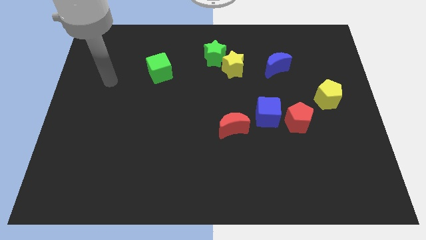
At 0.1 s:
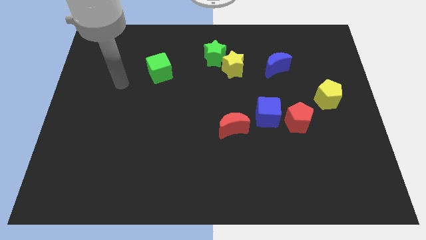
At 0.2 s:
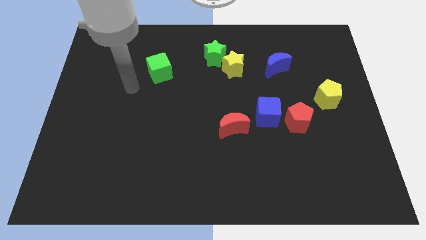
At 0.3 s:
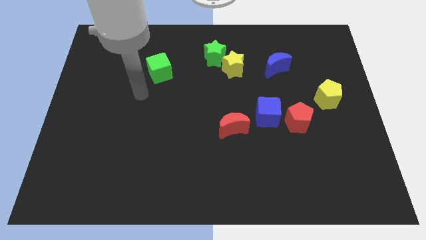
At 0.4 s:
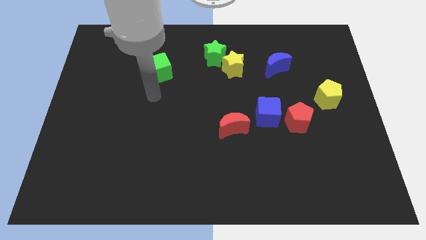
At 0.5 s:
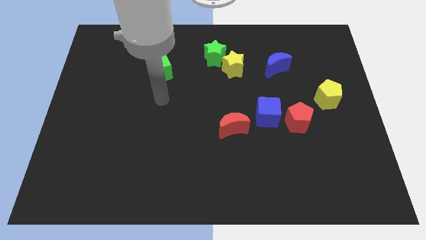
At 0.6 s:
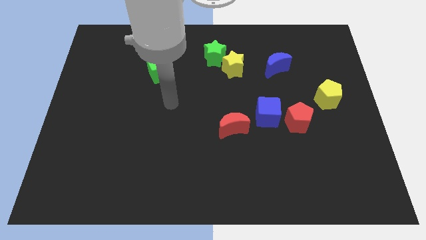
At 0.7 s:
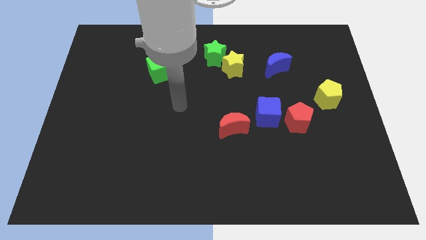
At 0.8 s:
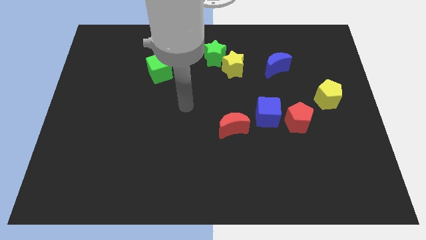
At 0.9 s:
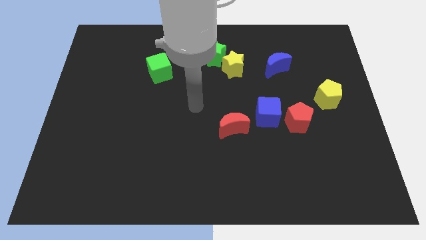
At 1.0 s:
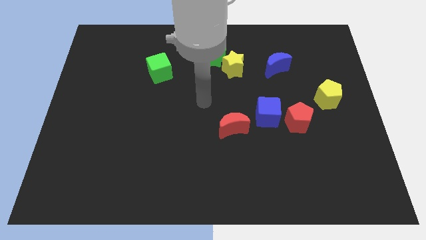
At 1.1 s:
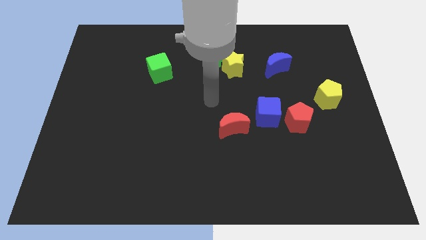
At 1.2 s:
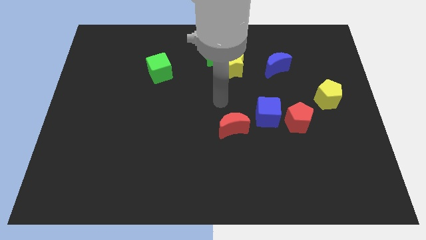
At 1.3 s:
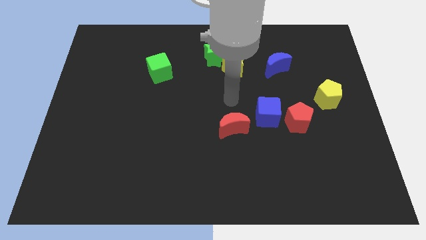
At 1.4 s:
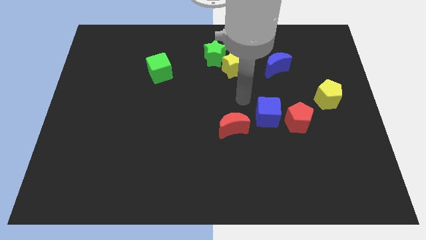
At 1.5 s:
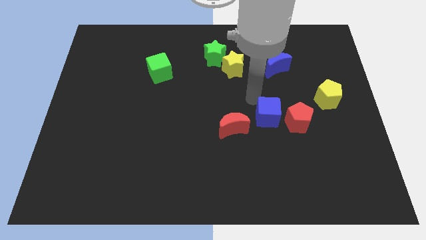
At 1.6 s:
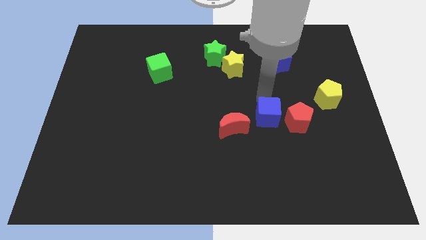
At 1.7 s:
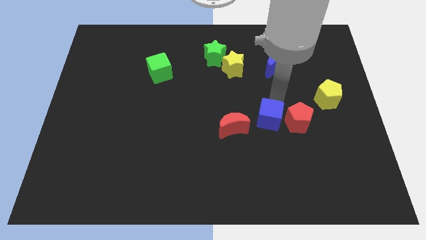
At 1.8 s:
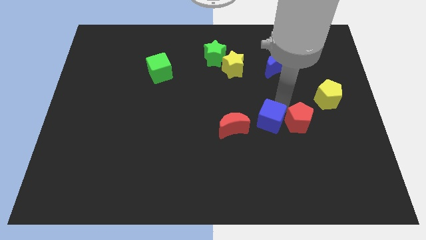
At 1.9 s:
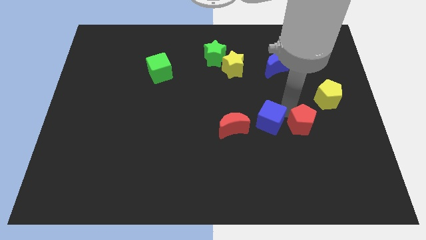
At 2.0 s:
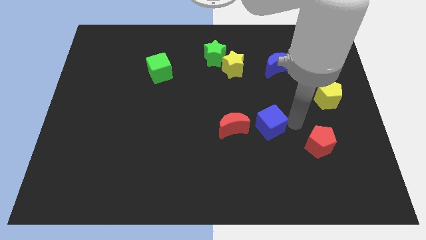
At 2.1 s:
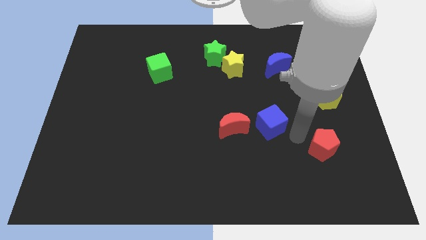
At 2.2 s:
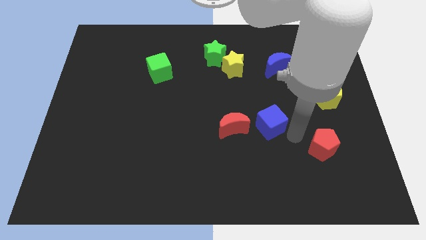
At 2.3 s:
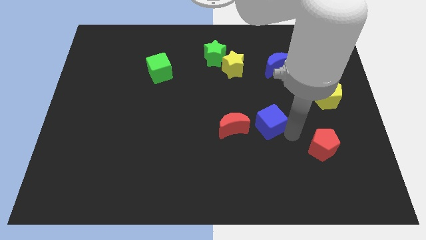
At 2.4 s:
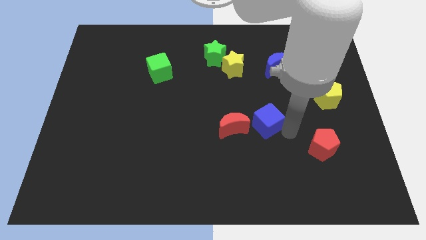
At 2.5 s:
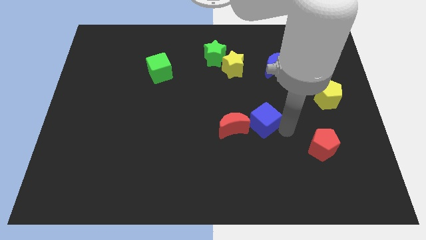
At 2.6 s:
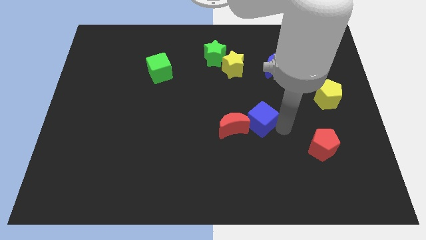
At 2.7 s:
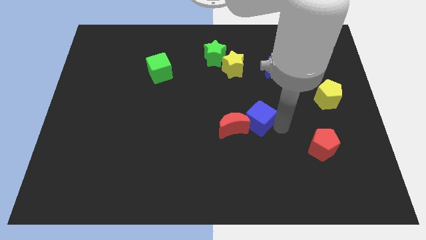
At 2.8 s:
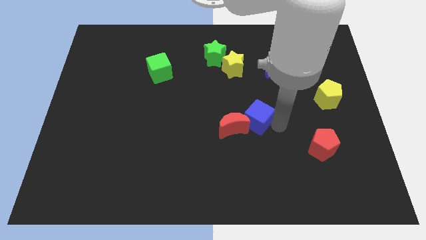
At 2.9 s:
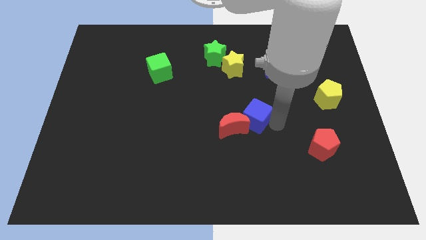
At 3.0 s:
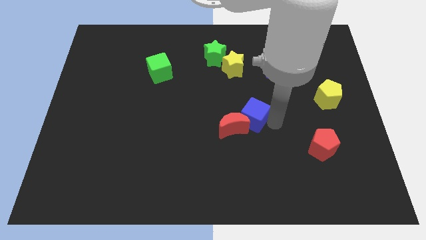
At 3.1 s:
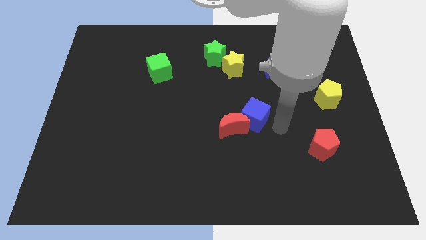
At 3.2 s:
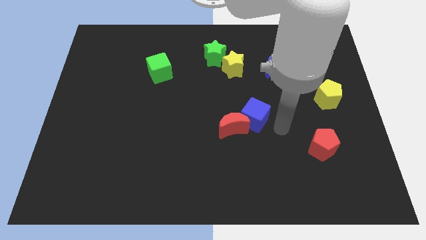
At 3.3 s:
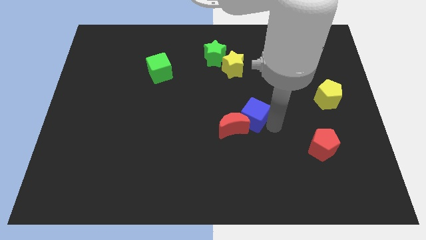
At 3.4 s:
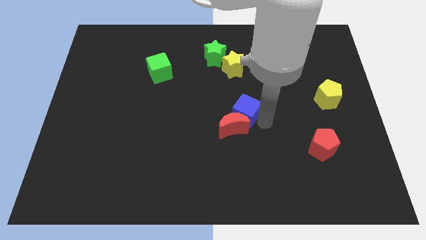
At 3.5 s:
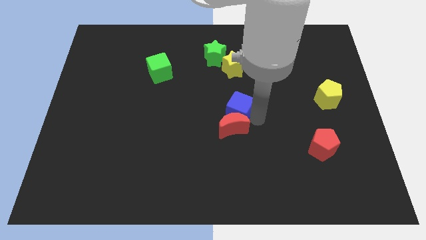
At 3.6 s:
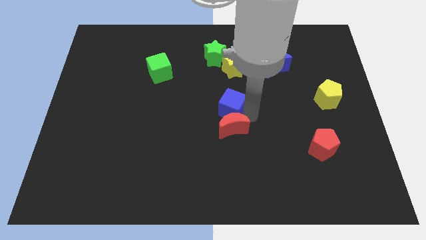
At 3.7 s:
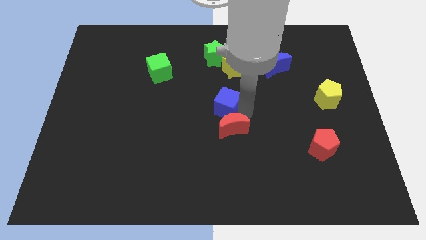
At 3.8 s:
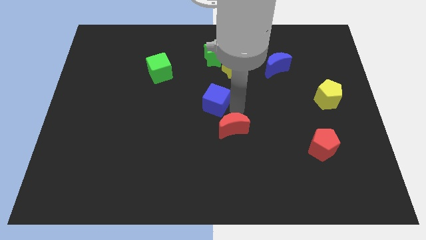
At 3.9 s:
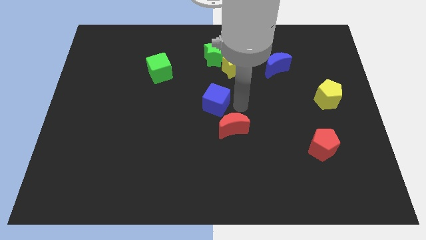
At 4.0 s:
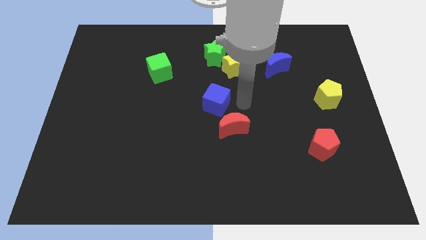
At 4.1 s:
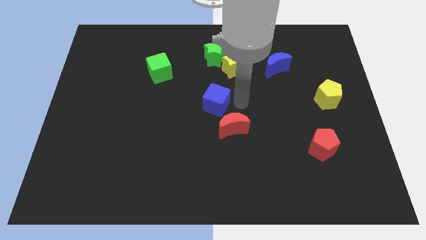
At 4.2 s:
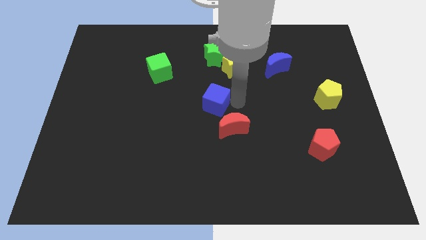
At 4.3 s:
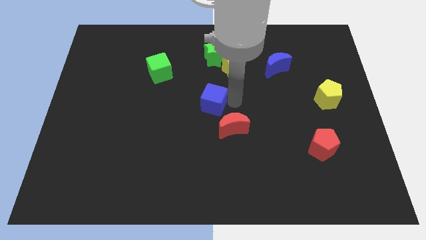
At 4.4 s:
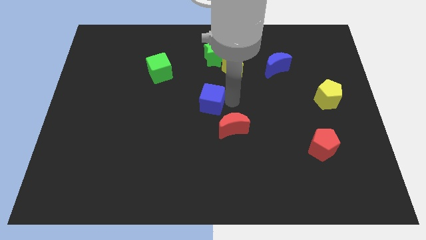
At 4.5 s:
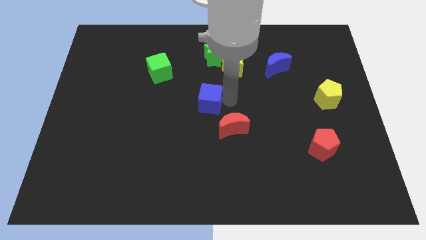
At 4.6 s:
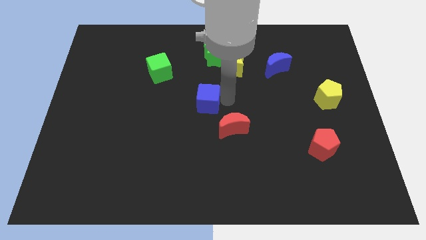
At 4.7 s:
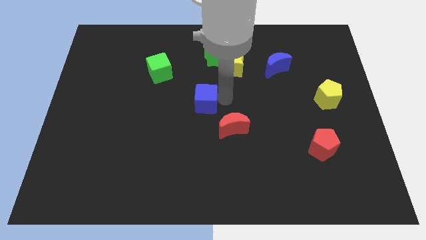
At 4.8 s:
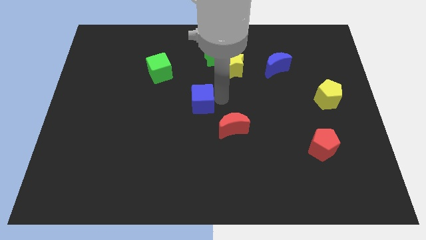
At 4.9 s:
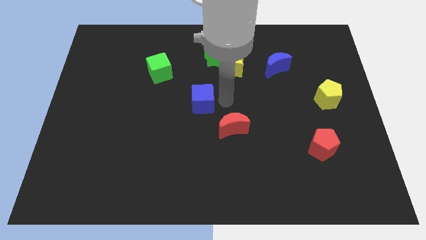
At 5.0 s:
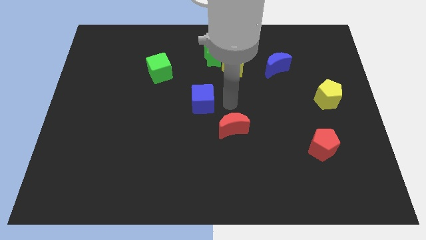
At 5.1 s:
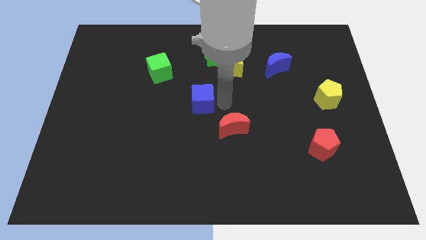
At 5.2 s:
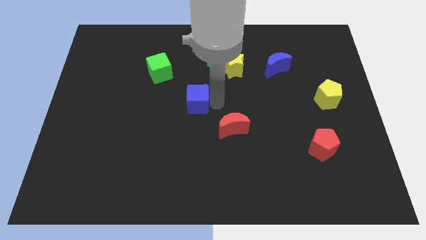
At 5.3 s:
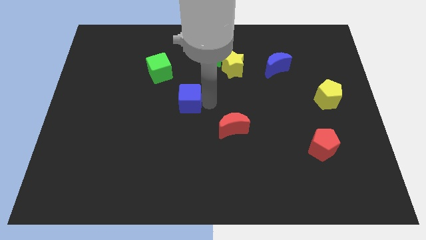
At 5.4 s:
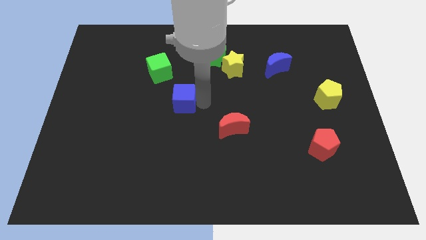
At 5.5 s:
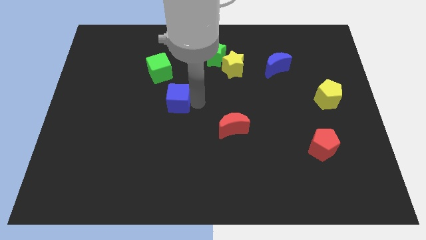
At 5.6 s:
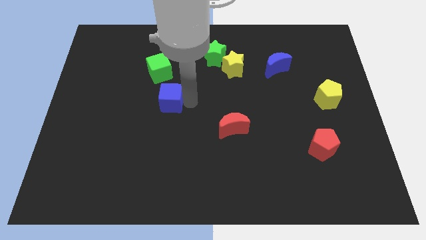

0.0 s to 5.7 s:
slide the blue cube to the bottom side of the green cube

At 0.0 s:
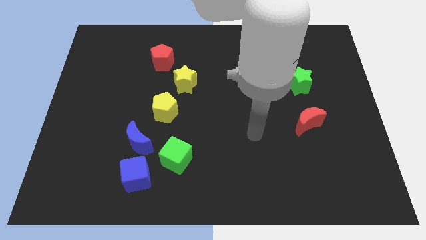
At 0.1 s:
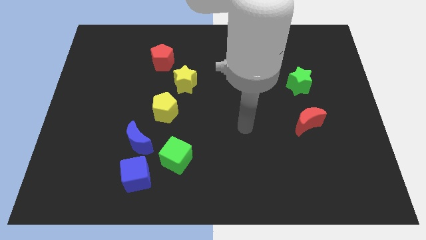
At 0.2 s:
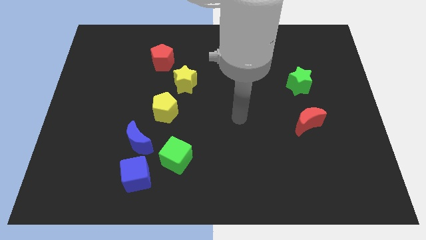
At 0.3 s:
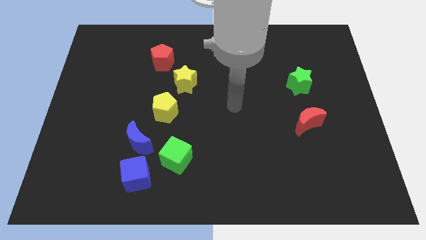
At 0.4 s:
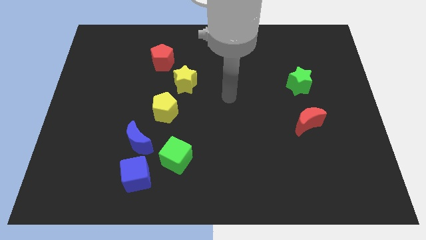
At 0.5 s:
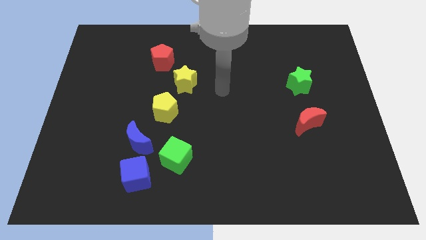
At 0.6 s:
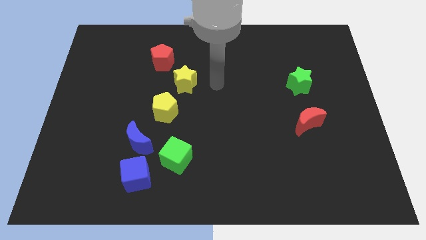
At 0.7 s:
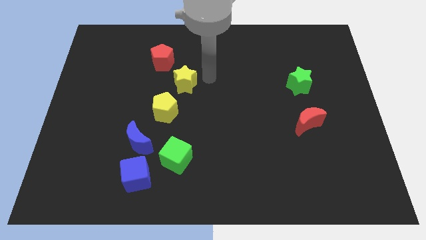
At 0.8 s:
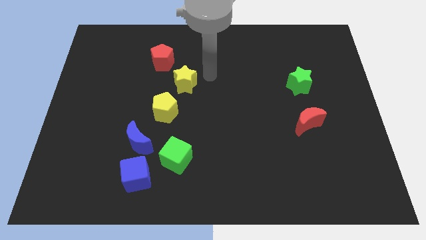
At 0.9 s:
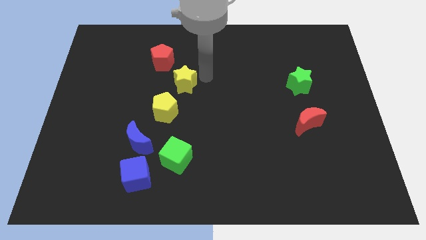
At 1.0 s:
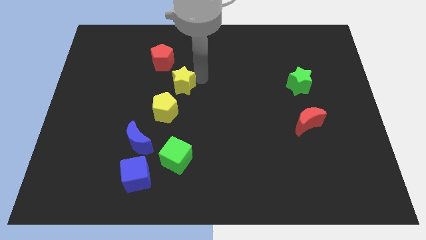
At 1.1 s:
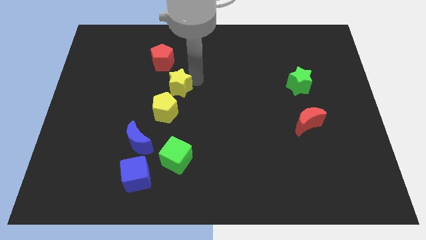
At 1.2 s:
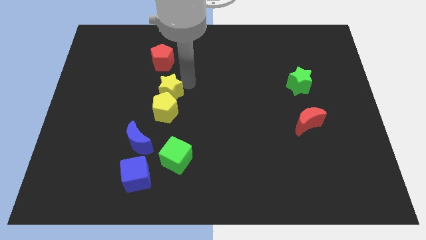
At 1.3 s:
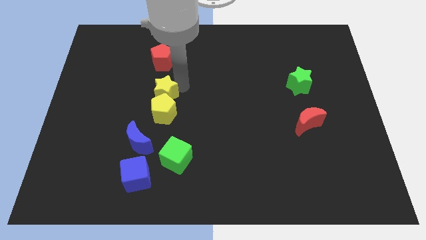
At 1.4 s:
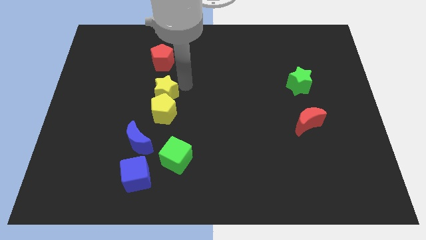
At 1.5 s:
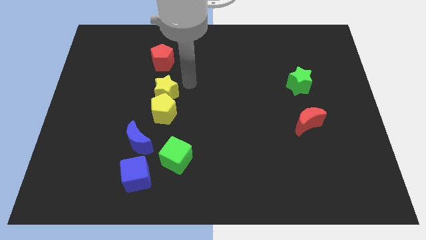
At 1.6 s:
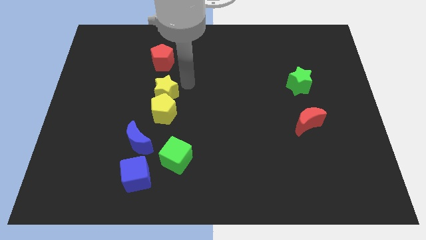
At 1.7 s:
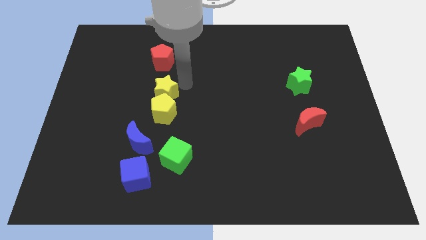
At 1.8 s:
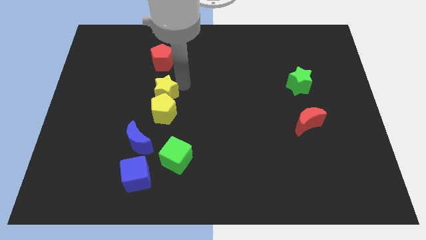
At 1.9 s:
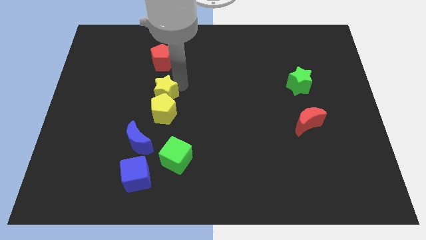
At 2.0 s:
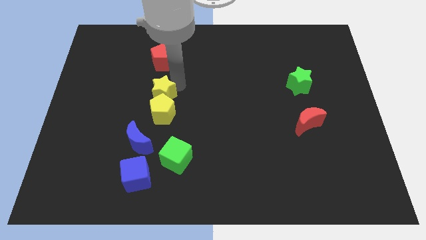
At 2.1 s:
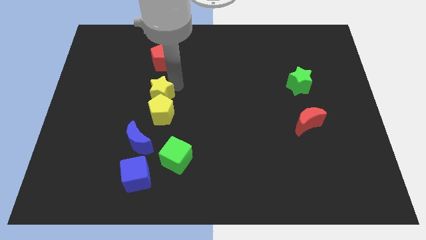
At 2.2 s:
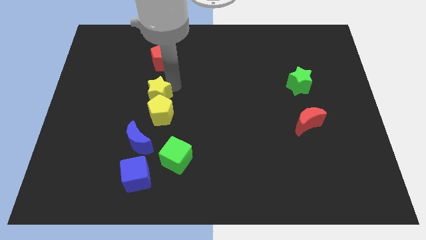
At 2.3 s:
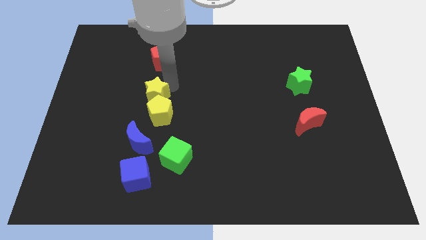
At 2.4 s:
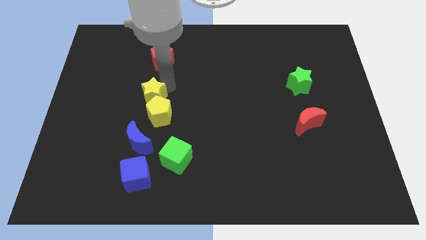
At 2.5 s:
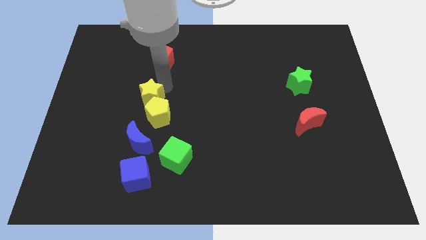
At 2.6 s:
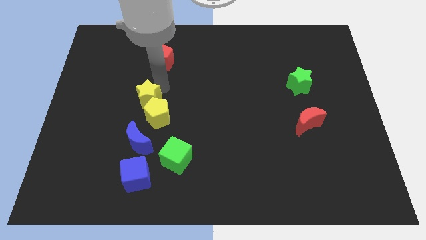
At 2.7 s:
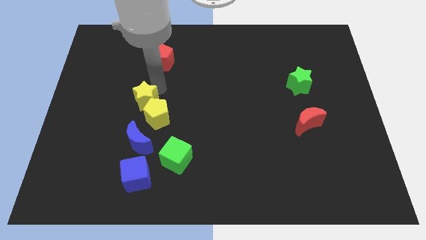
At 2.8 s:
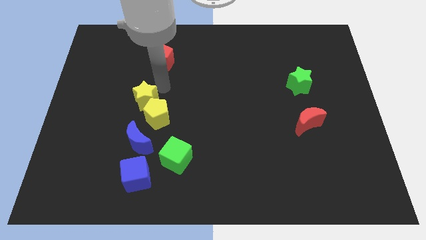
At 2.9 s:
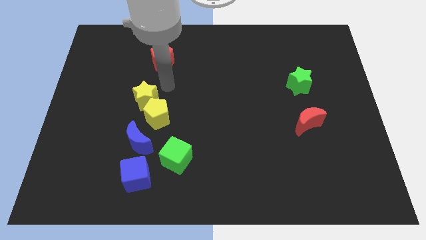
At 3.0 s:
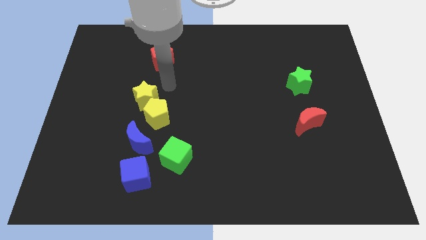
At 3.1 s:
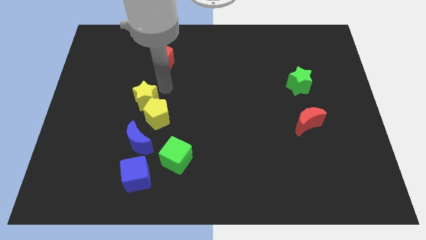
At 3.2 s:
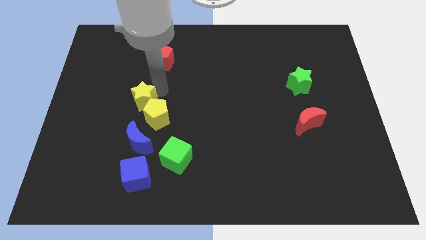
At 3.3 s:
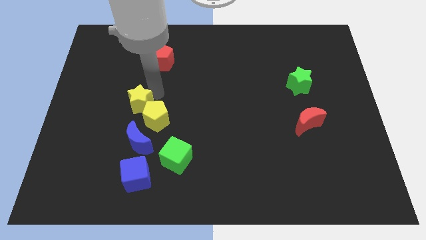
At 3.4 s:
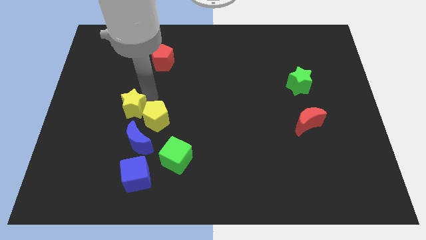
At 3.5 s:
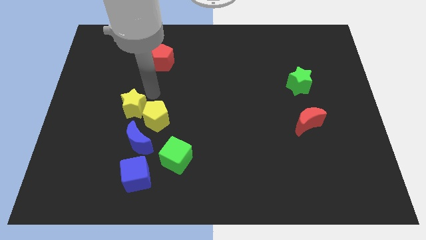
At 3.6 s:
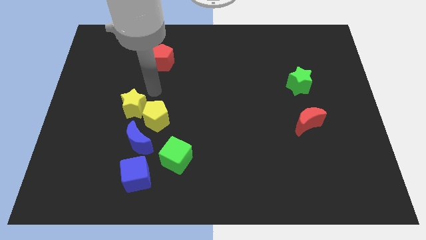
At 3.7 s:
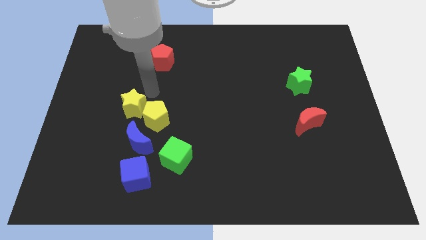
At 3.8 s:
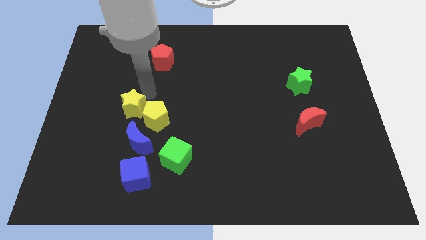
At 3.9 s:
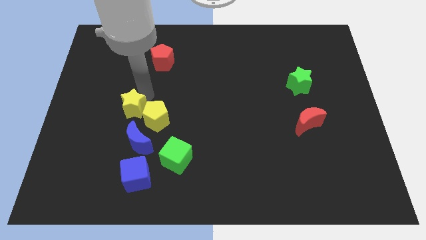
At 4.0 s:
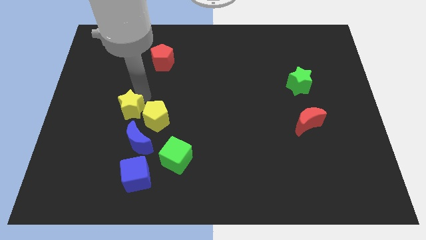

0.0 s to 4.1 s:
push the yellow star to the top left side of the blue moon
